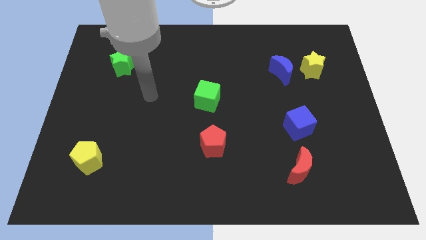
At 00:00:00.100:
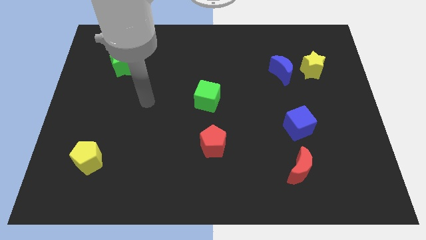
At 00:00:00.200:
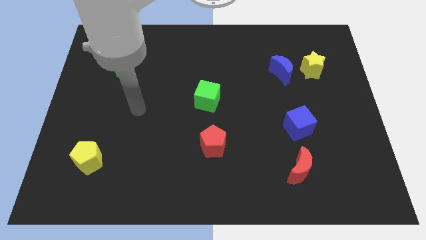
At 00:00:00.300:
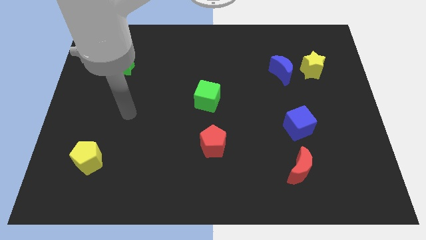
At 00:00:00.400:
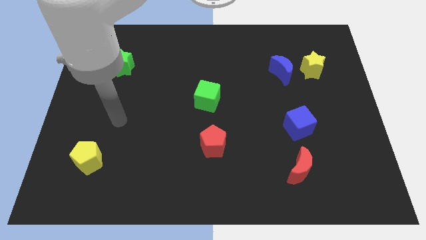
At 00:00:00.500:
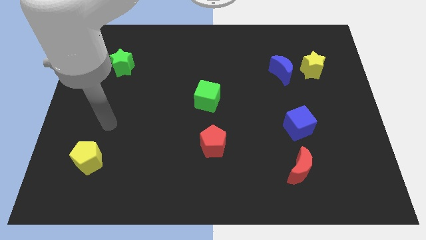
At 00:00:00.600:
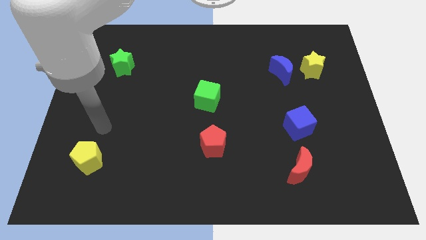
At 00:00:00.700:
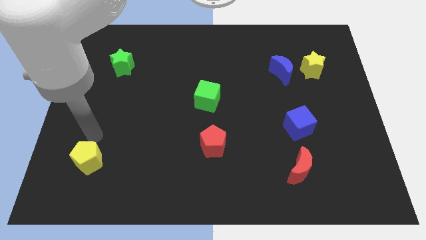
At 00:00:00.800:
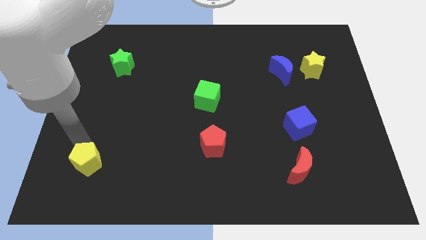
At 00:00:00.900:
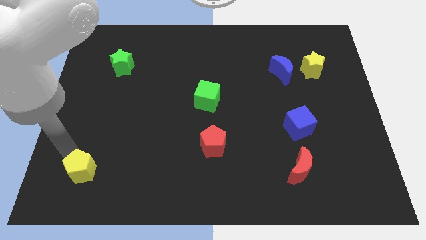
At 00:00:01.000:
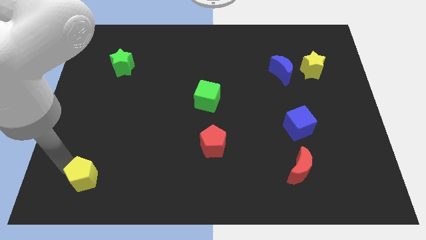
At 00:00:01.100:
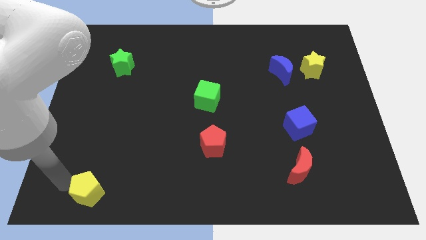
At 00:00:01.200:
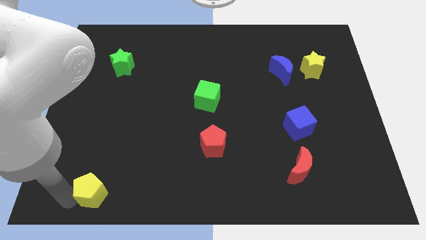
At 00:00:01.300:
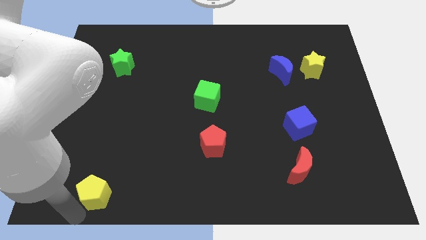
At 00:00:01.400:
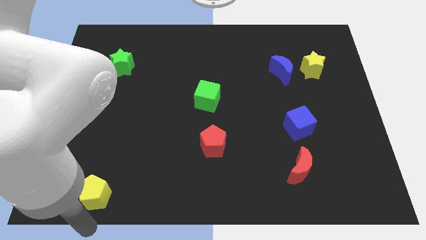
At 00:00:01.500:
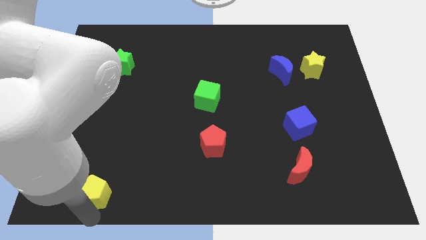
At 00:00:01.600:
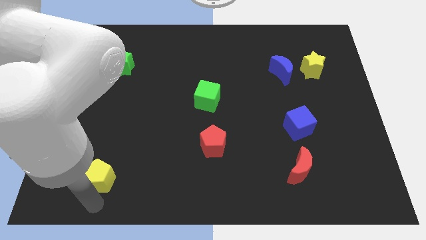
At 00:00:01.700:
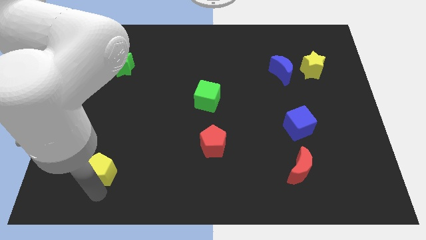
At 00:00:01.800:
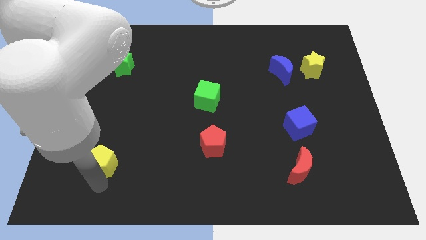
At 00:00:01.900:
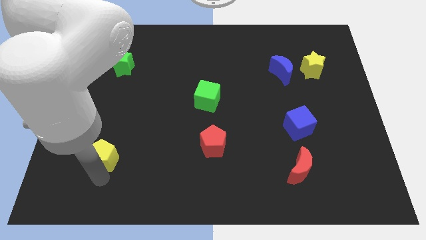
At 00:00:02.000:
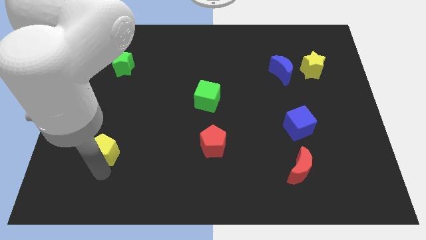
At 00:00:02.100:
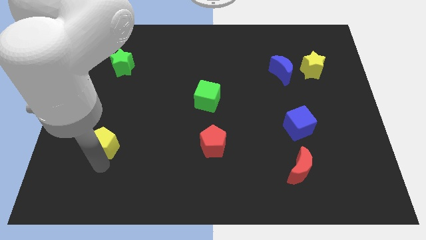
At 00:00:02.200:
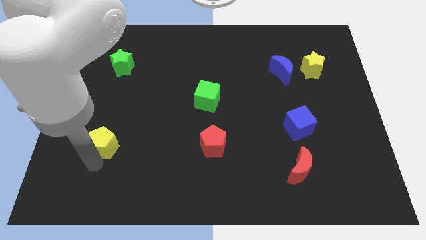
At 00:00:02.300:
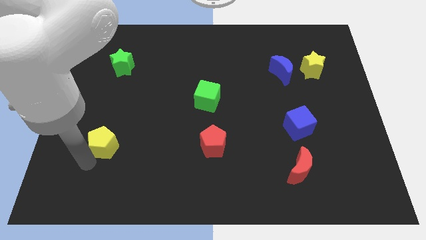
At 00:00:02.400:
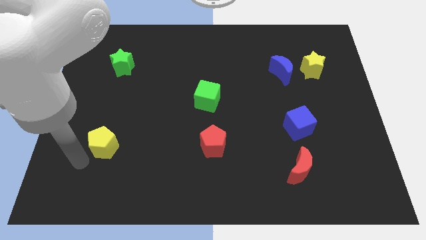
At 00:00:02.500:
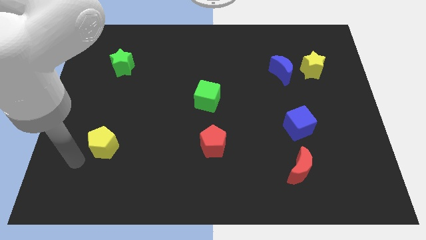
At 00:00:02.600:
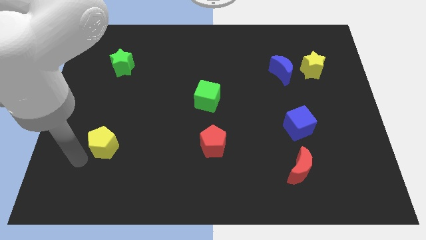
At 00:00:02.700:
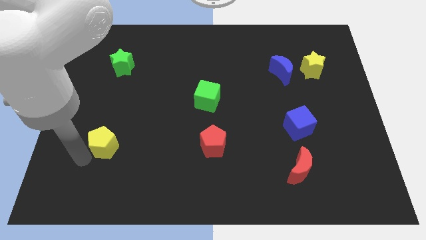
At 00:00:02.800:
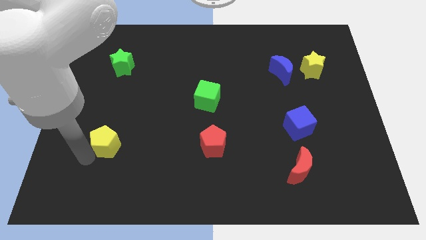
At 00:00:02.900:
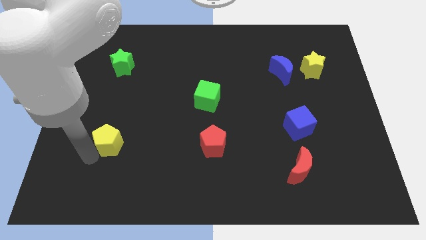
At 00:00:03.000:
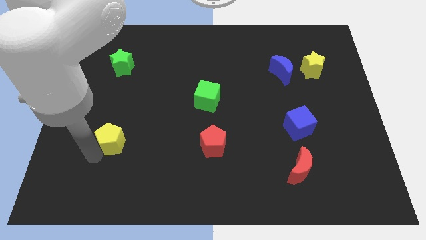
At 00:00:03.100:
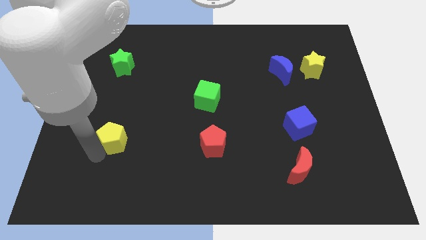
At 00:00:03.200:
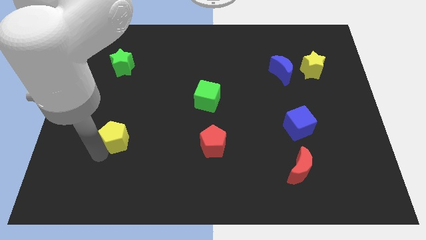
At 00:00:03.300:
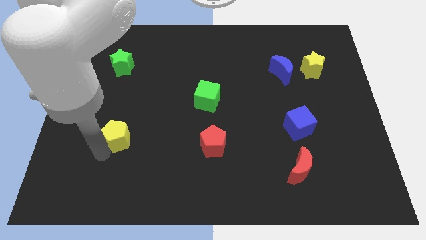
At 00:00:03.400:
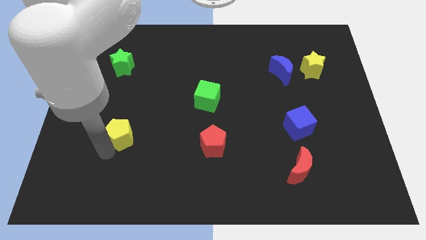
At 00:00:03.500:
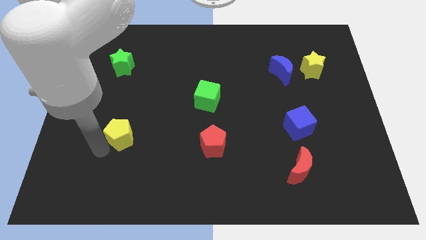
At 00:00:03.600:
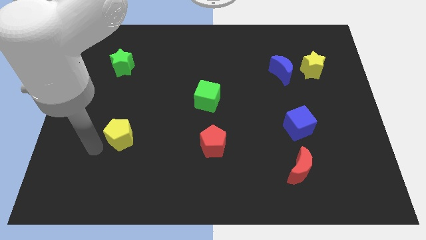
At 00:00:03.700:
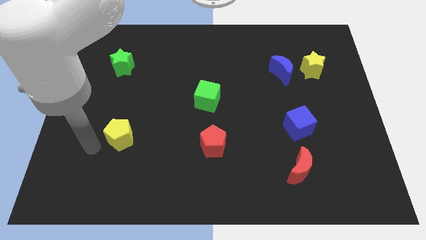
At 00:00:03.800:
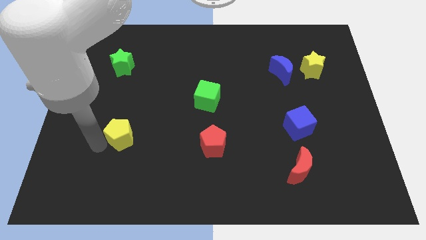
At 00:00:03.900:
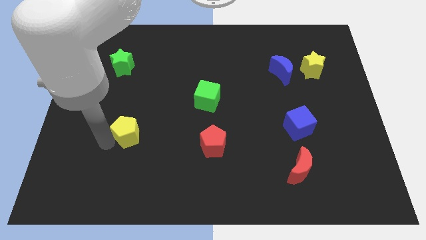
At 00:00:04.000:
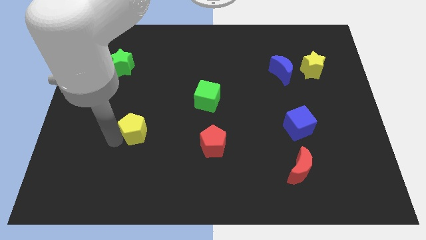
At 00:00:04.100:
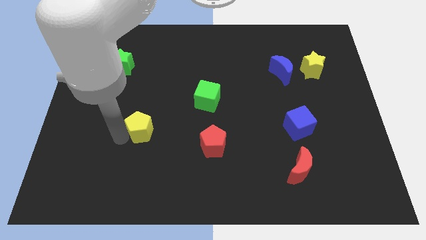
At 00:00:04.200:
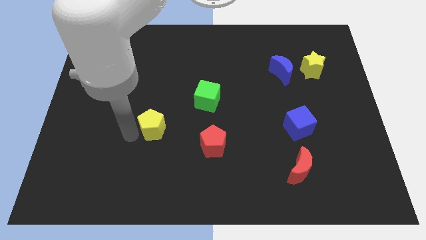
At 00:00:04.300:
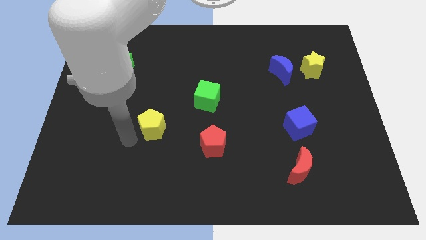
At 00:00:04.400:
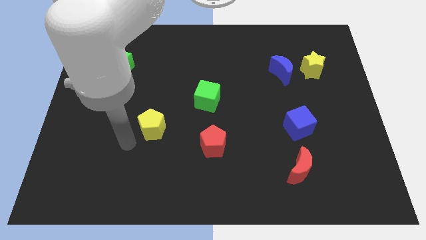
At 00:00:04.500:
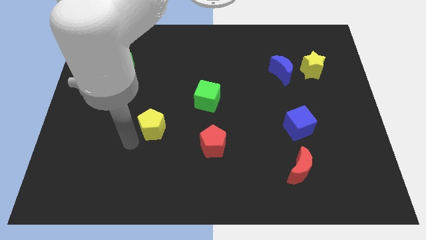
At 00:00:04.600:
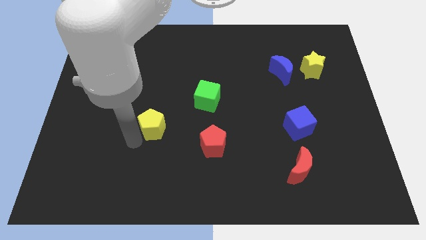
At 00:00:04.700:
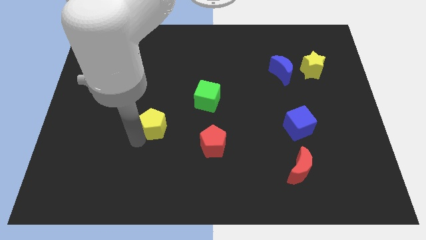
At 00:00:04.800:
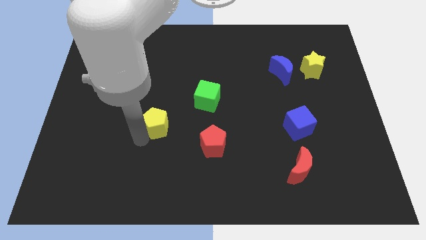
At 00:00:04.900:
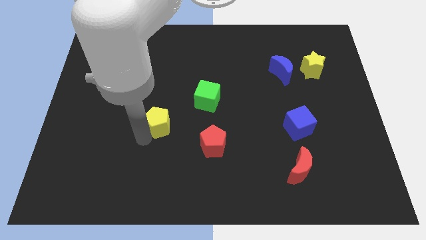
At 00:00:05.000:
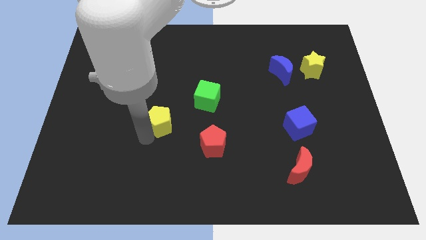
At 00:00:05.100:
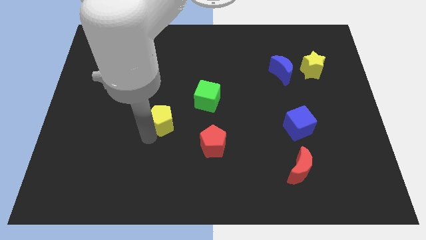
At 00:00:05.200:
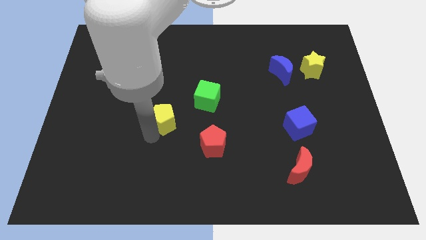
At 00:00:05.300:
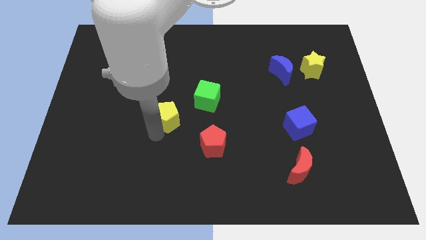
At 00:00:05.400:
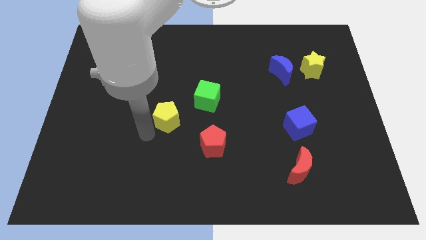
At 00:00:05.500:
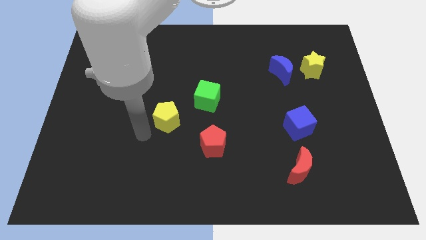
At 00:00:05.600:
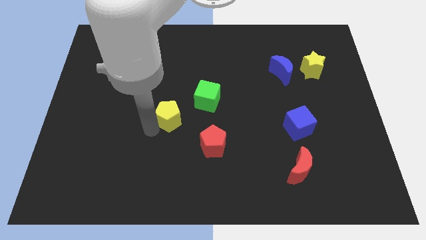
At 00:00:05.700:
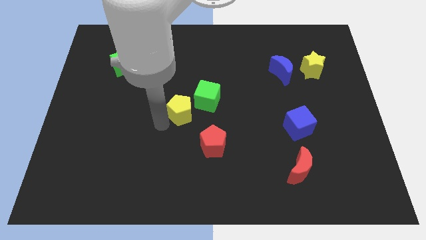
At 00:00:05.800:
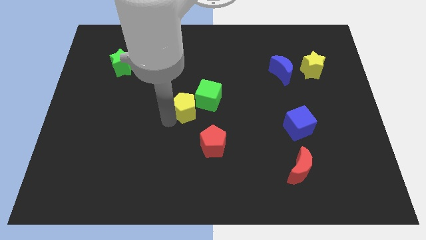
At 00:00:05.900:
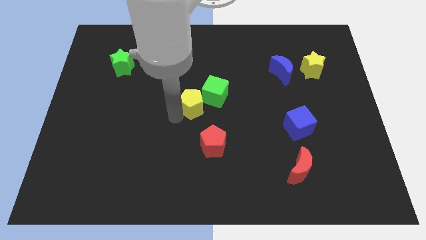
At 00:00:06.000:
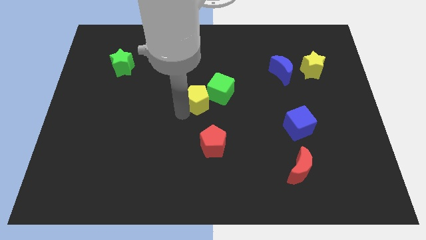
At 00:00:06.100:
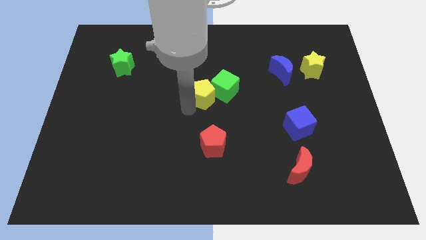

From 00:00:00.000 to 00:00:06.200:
put the yellow pentagon next to the green cube

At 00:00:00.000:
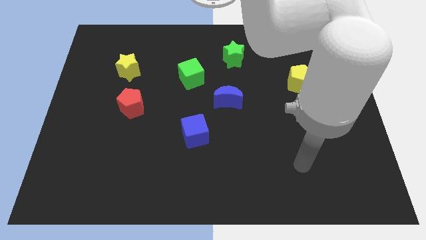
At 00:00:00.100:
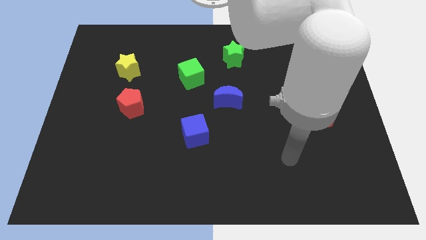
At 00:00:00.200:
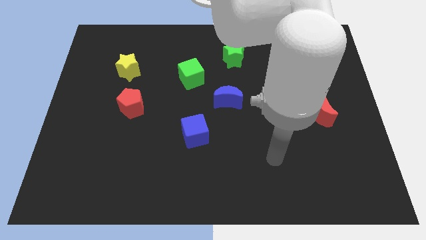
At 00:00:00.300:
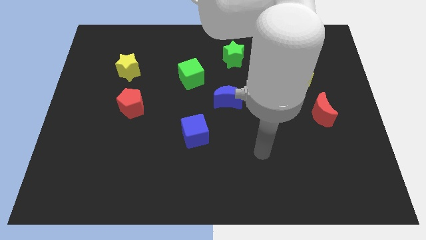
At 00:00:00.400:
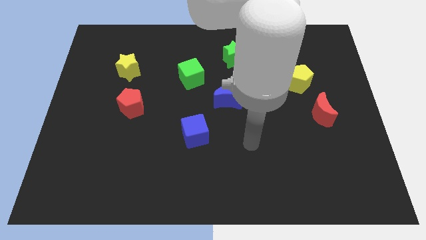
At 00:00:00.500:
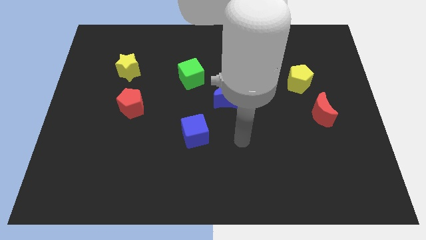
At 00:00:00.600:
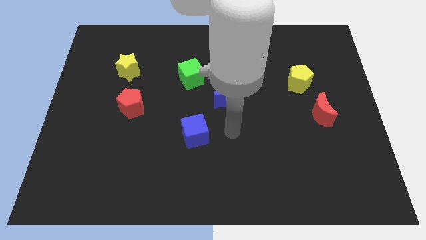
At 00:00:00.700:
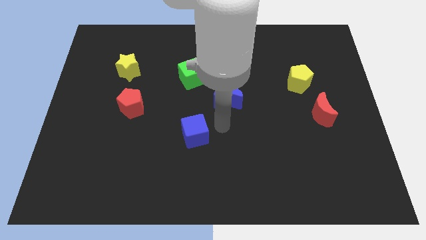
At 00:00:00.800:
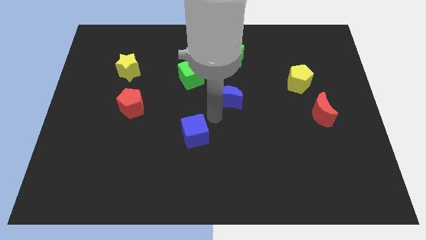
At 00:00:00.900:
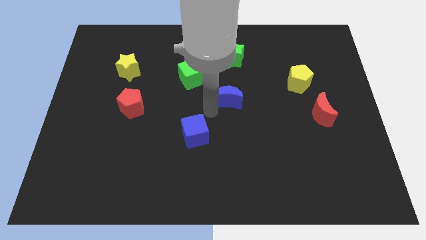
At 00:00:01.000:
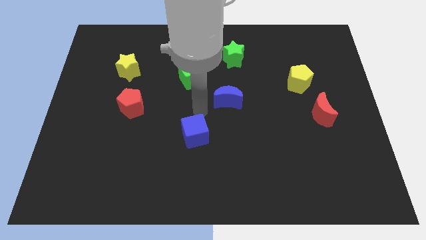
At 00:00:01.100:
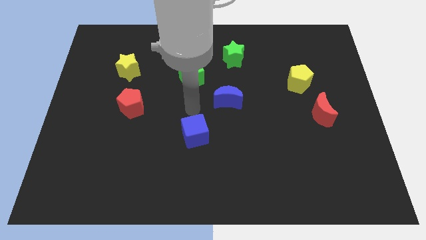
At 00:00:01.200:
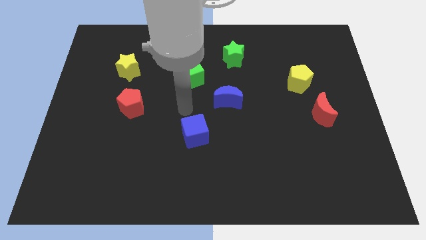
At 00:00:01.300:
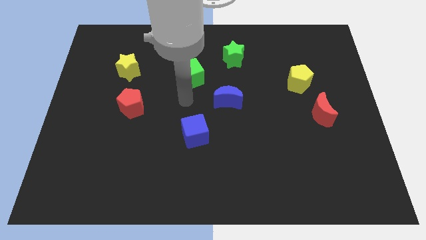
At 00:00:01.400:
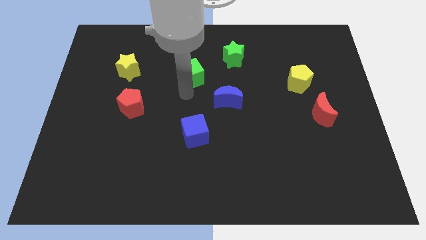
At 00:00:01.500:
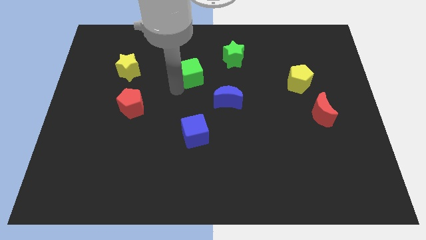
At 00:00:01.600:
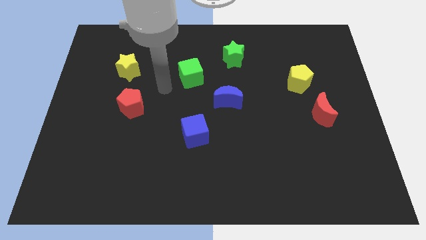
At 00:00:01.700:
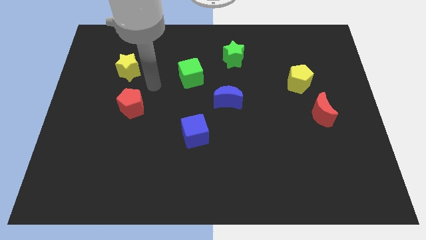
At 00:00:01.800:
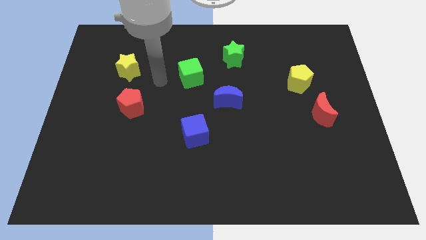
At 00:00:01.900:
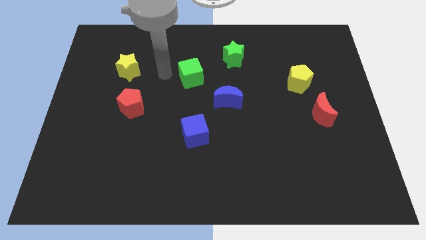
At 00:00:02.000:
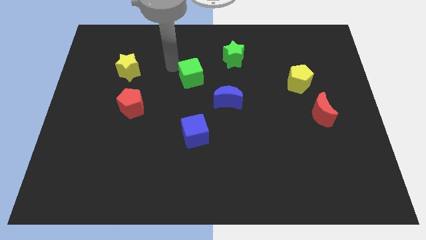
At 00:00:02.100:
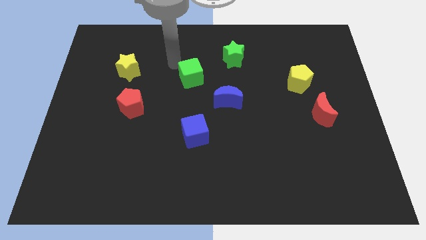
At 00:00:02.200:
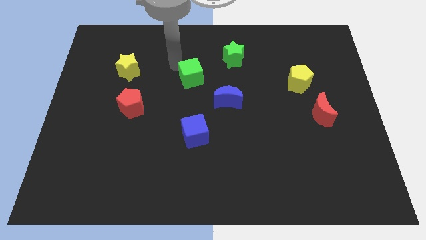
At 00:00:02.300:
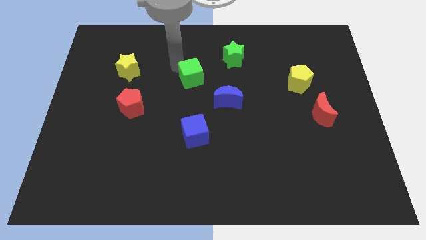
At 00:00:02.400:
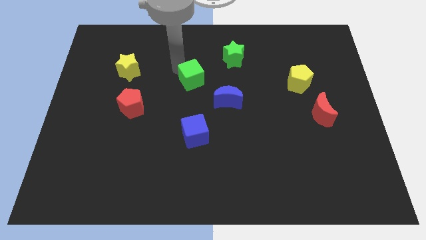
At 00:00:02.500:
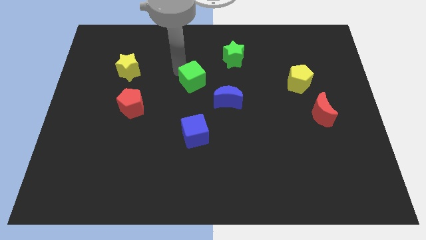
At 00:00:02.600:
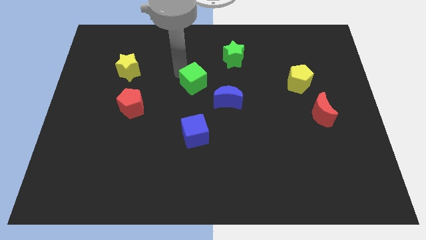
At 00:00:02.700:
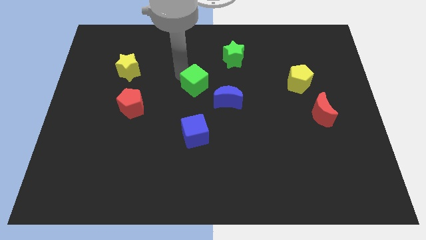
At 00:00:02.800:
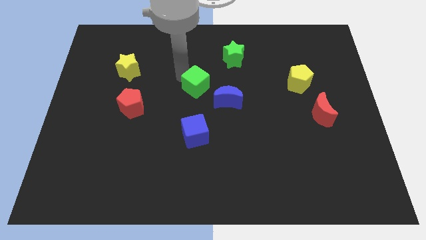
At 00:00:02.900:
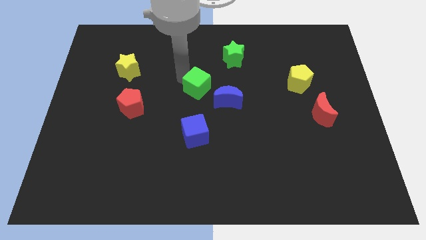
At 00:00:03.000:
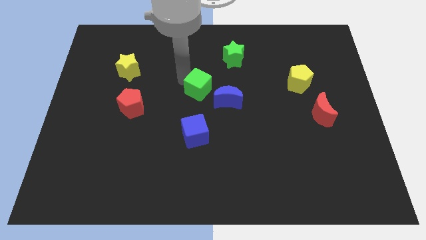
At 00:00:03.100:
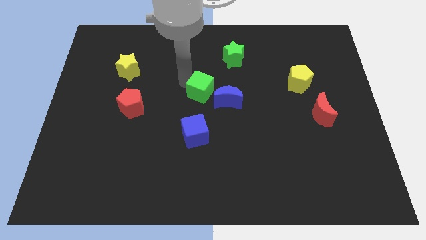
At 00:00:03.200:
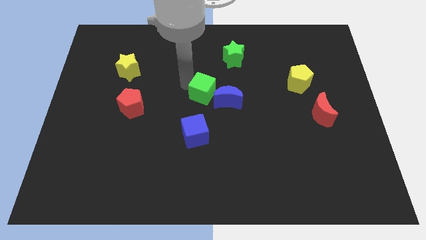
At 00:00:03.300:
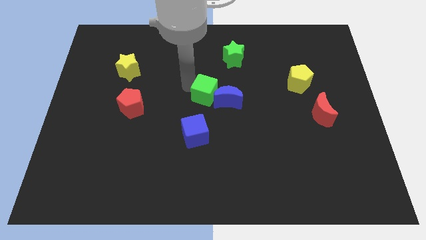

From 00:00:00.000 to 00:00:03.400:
put the green cube to the blue moon
